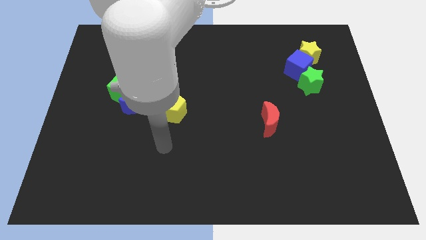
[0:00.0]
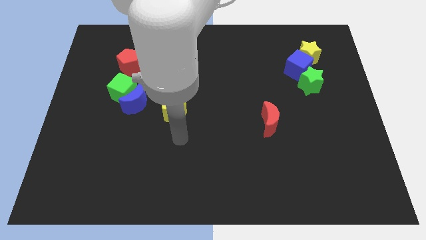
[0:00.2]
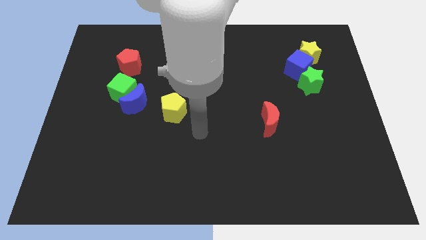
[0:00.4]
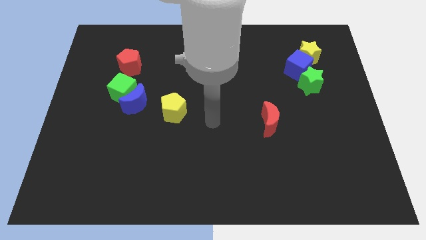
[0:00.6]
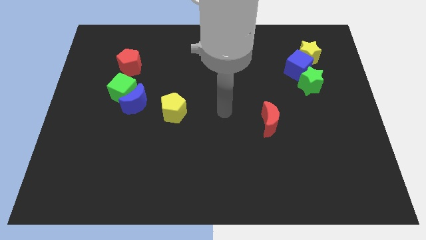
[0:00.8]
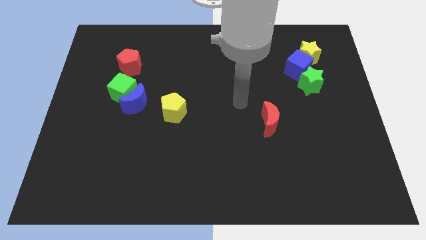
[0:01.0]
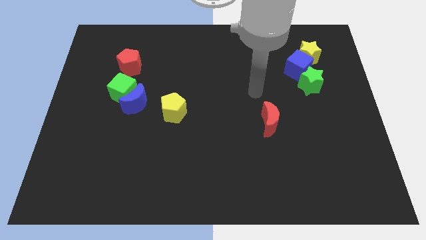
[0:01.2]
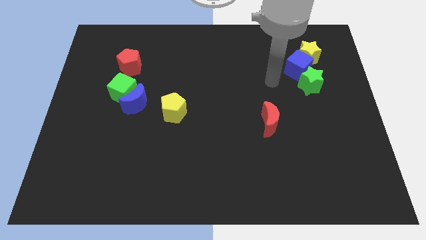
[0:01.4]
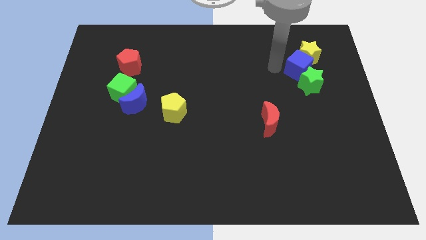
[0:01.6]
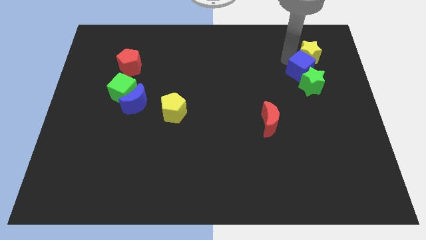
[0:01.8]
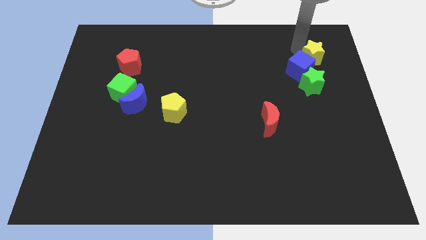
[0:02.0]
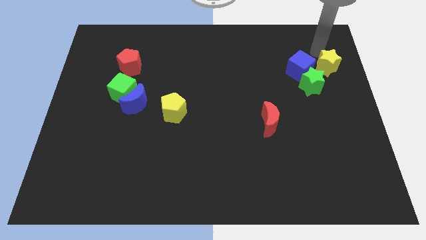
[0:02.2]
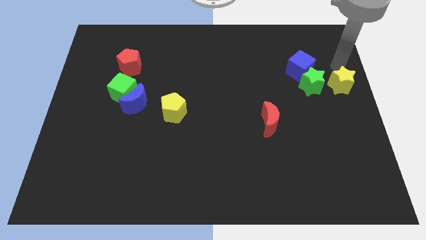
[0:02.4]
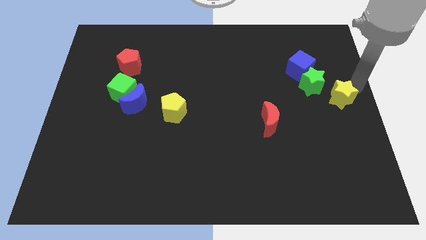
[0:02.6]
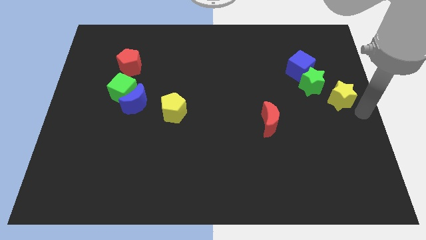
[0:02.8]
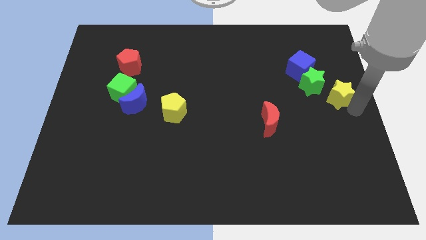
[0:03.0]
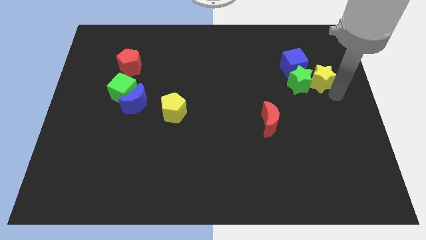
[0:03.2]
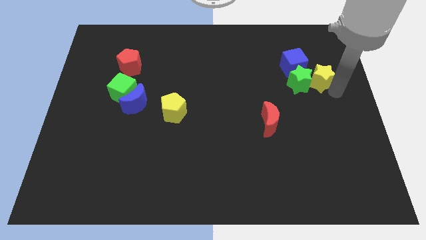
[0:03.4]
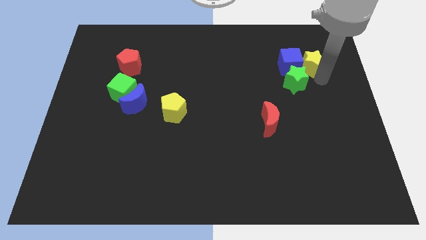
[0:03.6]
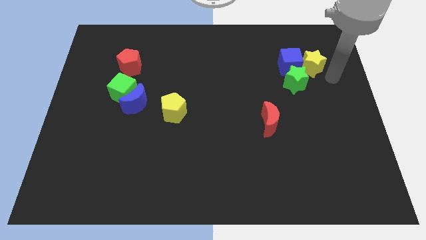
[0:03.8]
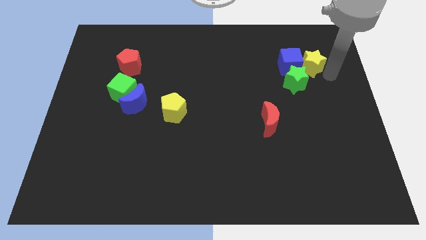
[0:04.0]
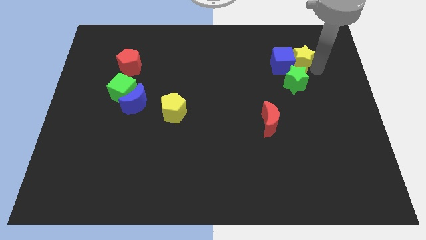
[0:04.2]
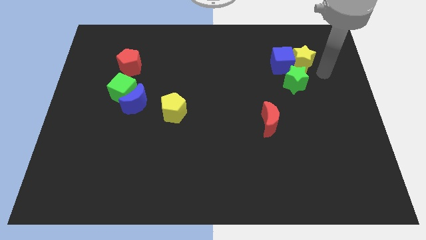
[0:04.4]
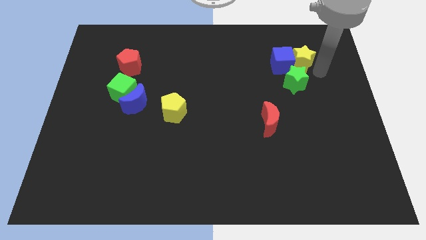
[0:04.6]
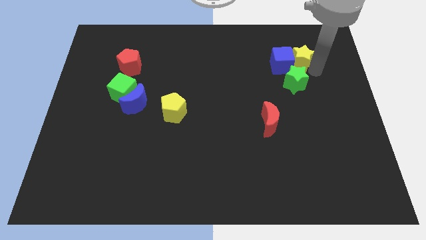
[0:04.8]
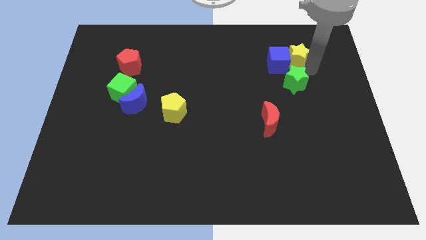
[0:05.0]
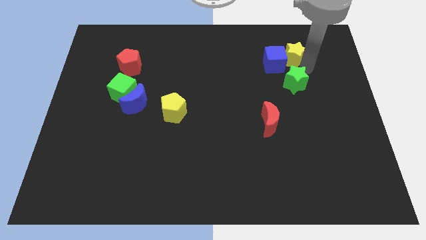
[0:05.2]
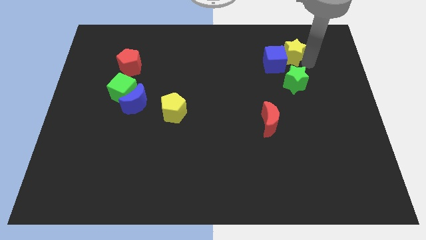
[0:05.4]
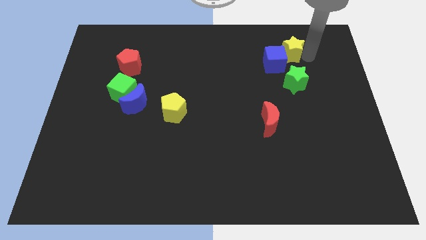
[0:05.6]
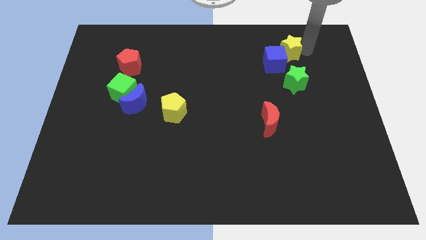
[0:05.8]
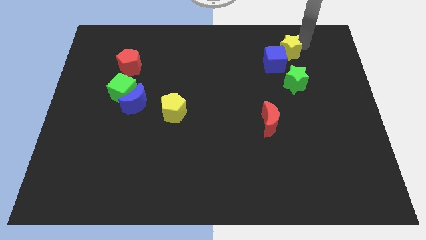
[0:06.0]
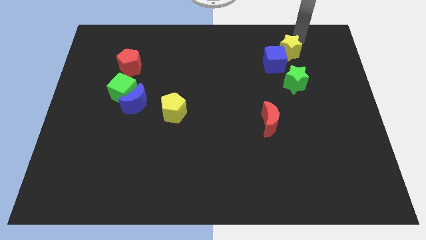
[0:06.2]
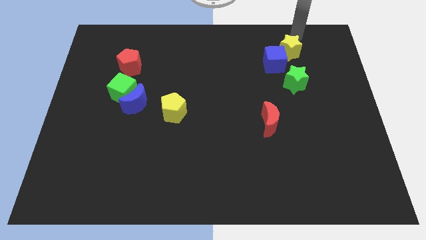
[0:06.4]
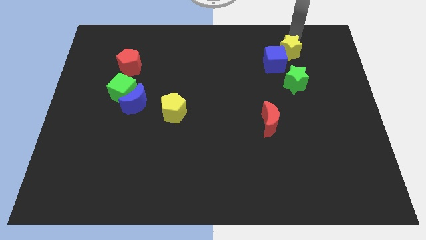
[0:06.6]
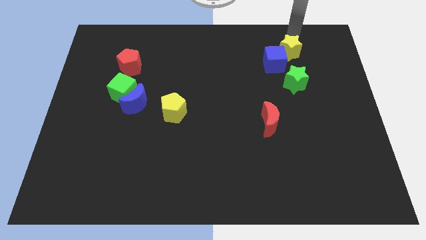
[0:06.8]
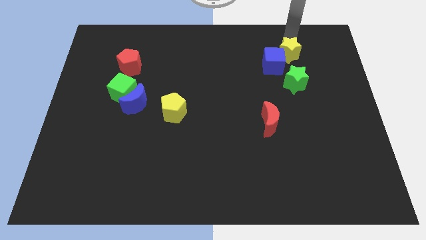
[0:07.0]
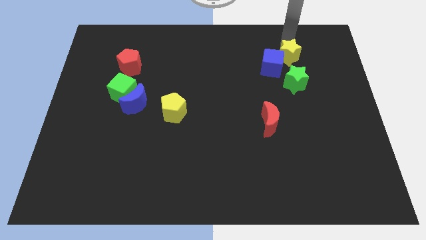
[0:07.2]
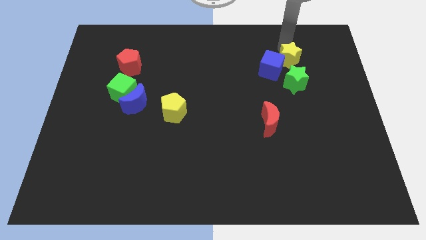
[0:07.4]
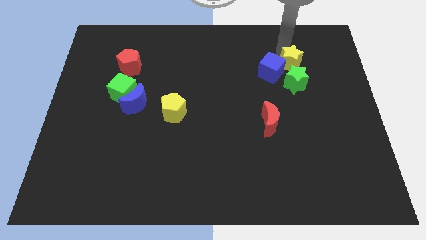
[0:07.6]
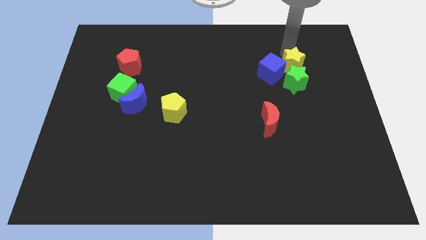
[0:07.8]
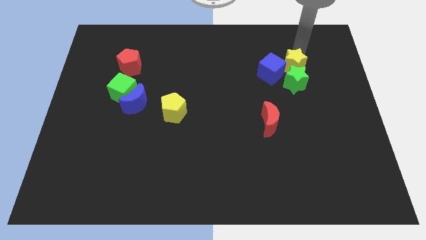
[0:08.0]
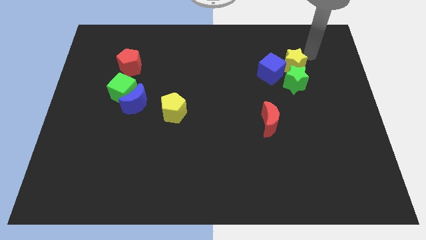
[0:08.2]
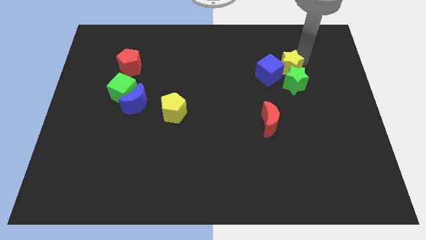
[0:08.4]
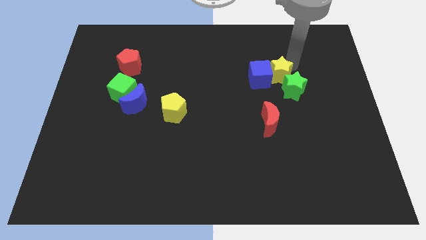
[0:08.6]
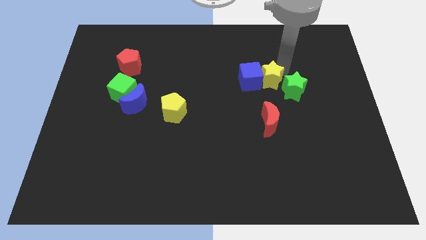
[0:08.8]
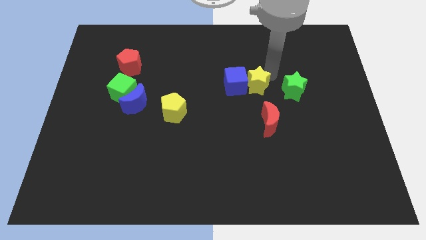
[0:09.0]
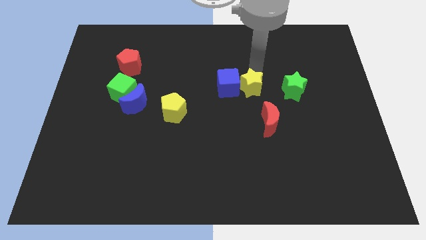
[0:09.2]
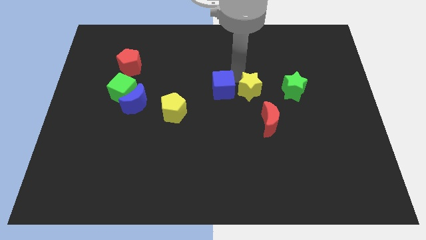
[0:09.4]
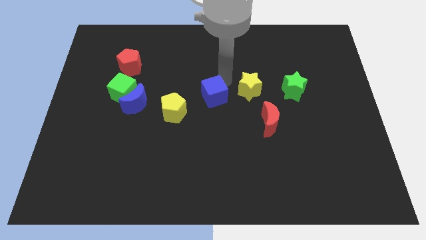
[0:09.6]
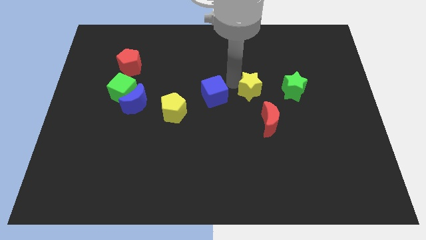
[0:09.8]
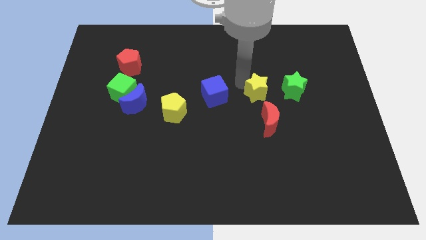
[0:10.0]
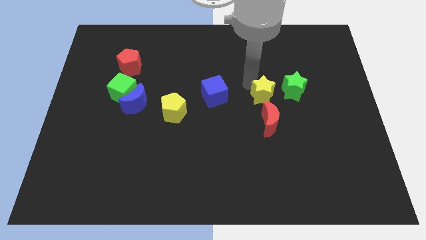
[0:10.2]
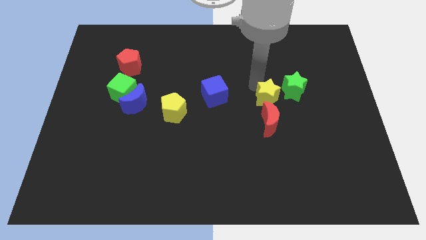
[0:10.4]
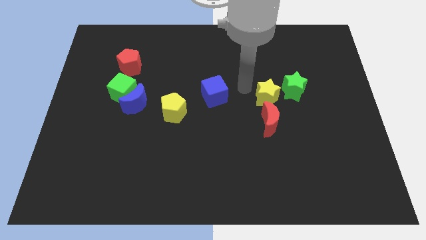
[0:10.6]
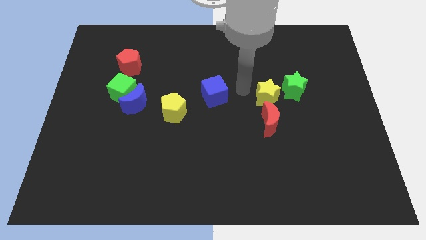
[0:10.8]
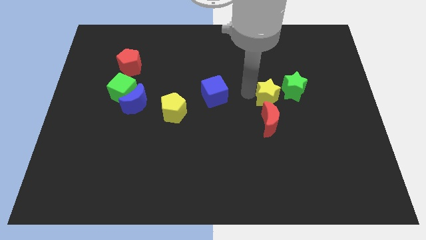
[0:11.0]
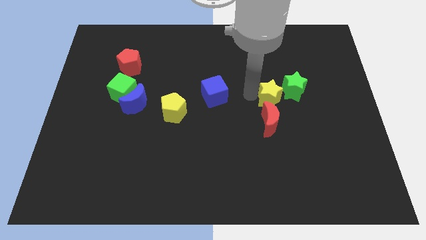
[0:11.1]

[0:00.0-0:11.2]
slide the yellow star to the top right of the red moon
